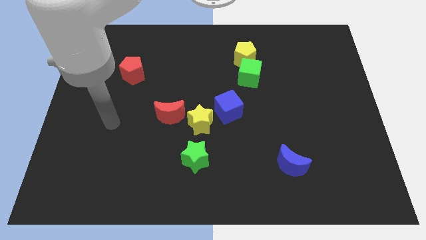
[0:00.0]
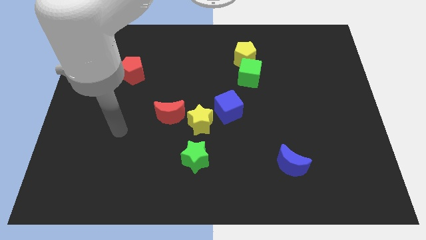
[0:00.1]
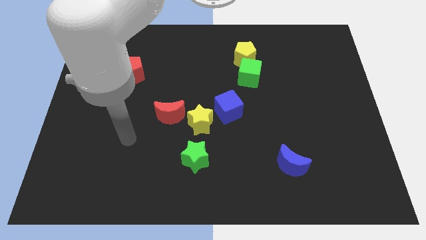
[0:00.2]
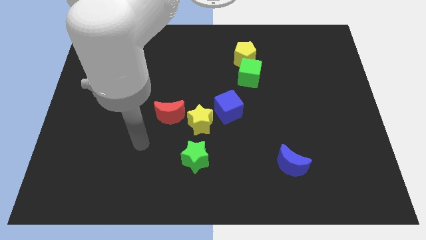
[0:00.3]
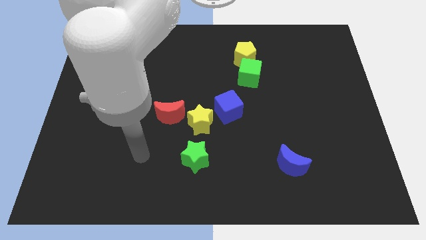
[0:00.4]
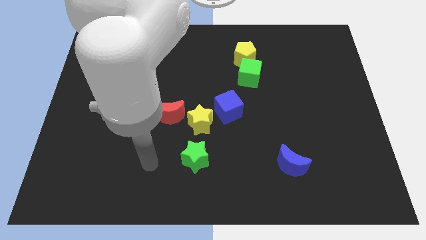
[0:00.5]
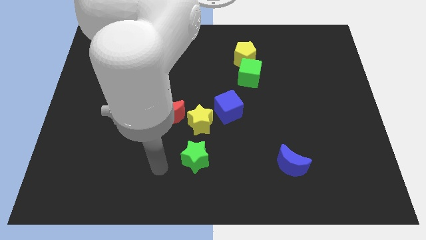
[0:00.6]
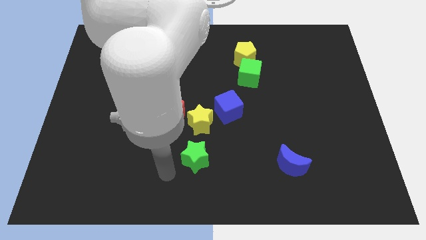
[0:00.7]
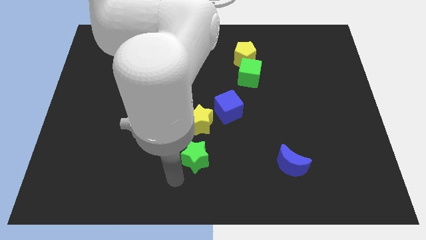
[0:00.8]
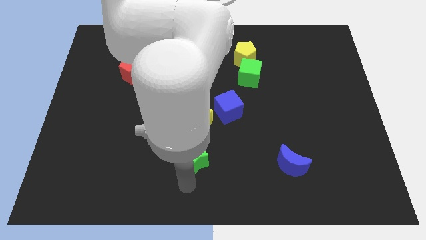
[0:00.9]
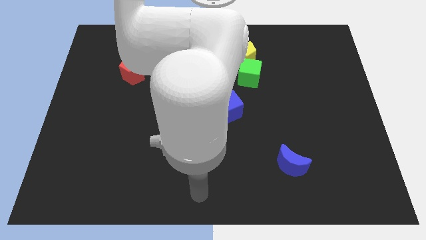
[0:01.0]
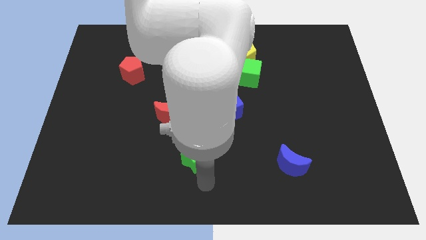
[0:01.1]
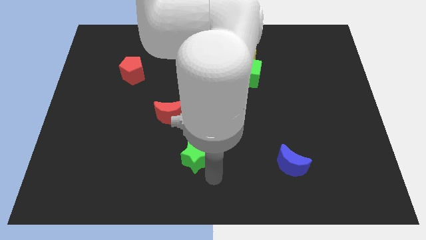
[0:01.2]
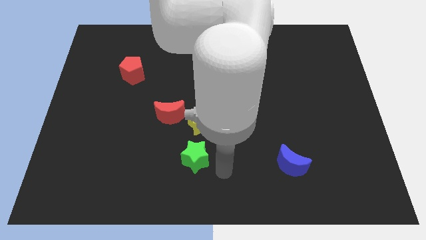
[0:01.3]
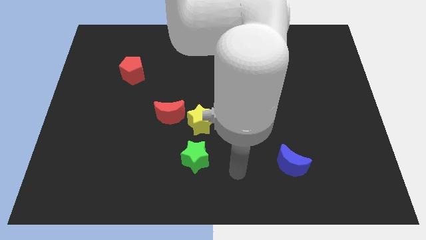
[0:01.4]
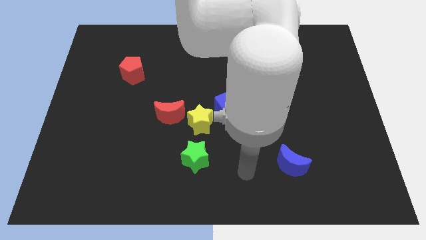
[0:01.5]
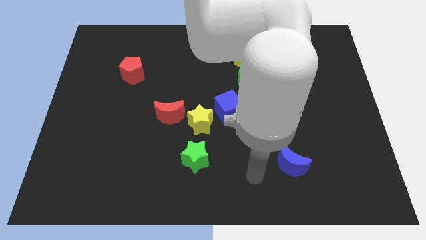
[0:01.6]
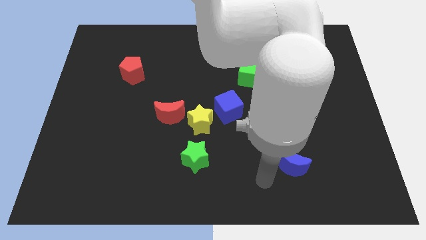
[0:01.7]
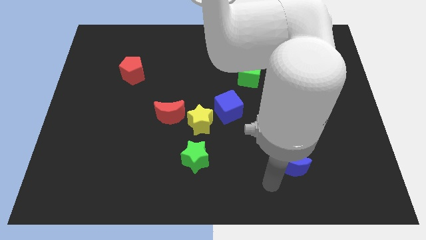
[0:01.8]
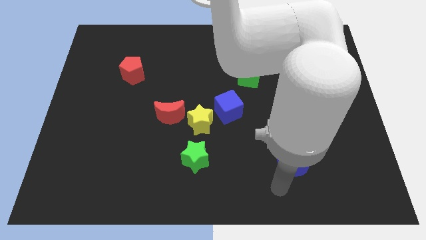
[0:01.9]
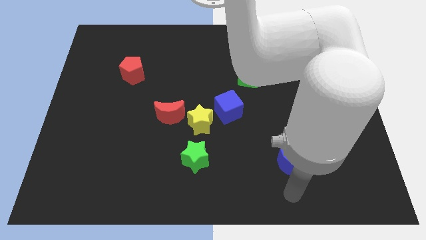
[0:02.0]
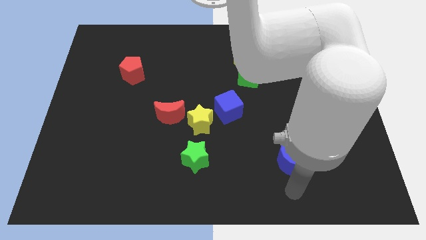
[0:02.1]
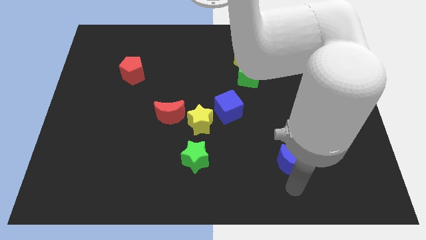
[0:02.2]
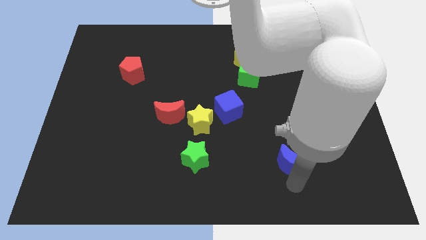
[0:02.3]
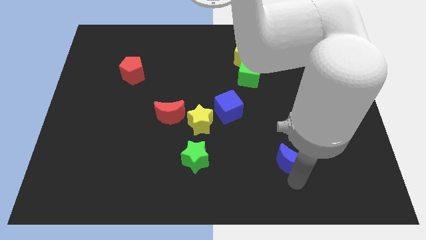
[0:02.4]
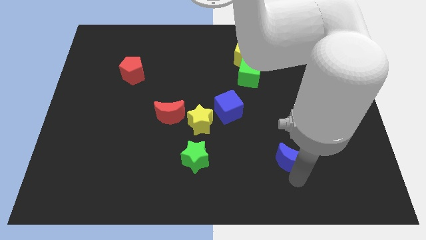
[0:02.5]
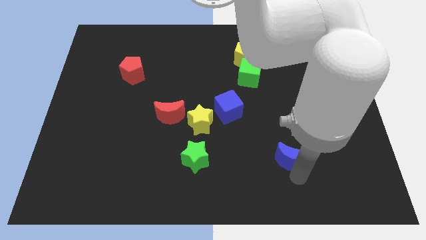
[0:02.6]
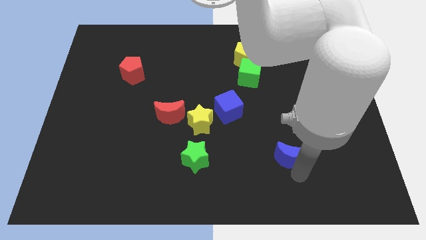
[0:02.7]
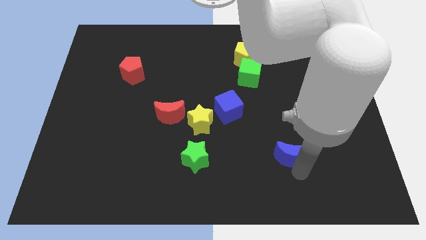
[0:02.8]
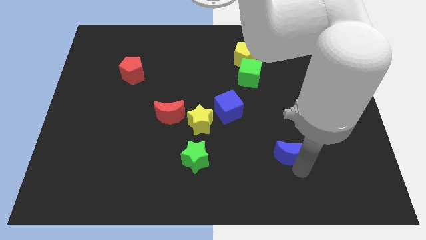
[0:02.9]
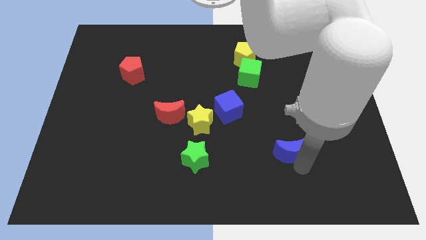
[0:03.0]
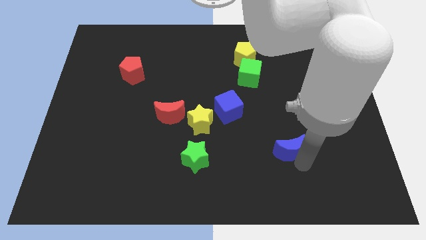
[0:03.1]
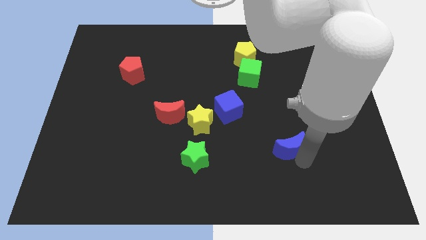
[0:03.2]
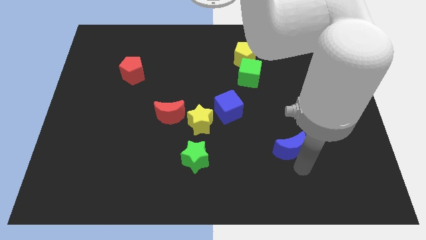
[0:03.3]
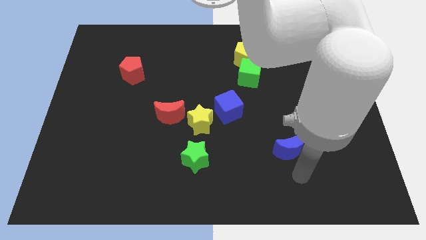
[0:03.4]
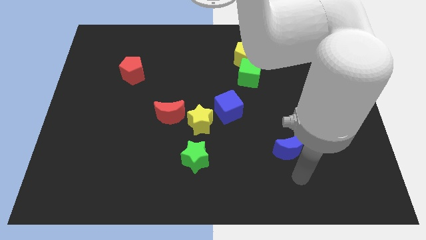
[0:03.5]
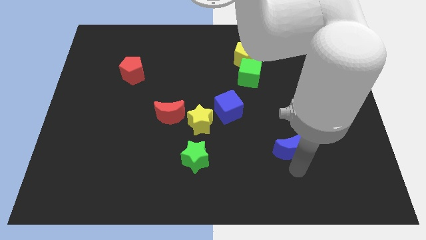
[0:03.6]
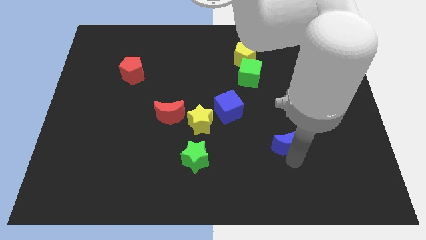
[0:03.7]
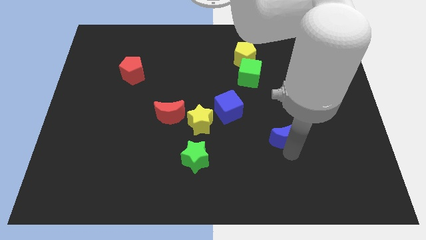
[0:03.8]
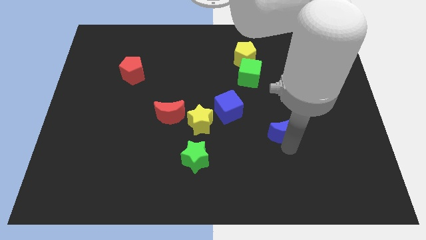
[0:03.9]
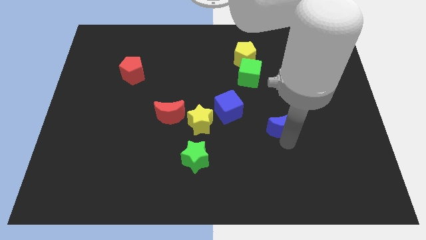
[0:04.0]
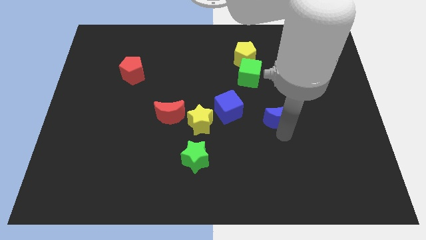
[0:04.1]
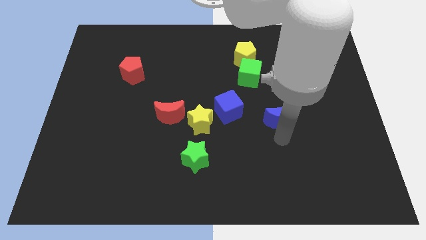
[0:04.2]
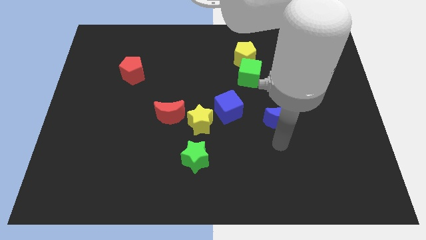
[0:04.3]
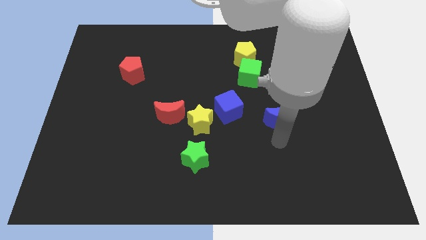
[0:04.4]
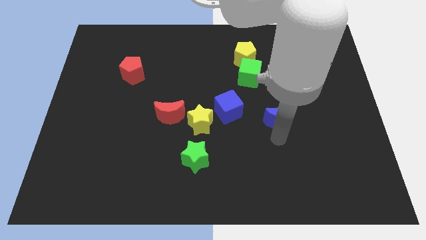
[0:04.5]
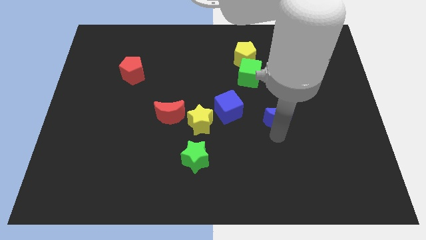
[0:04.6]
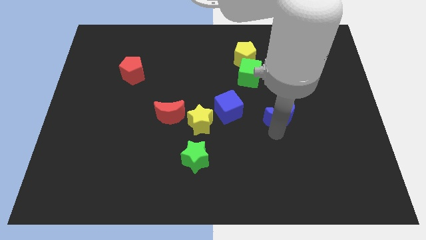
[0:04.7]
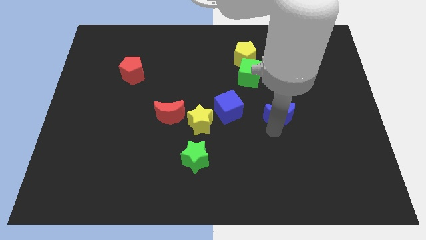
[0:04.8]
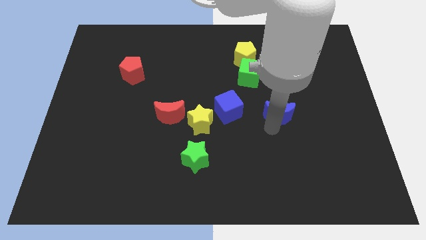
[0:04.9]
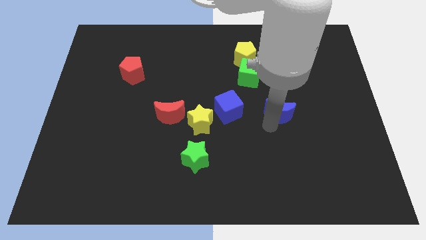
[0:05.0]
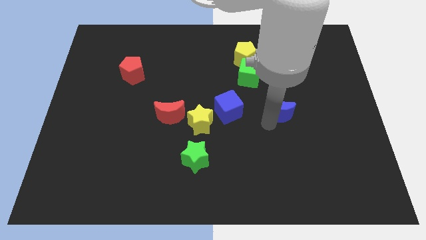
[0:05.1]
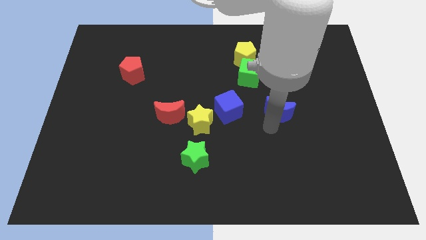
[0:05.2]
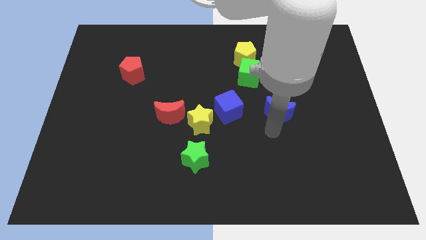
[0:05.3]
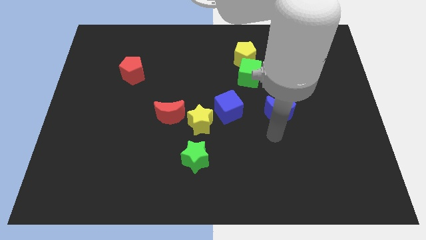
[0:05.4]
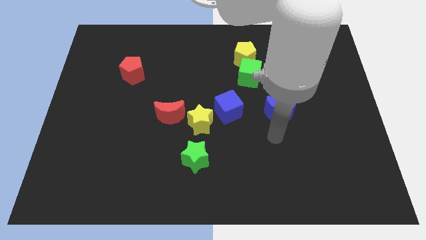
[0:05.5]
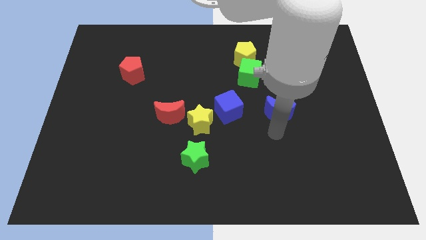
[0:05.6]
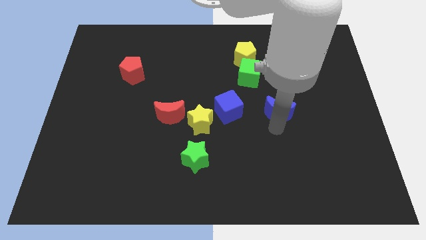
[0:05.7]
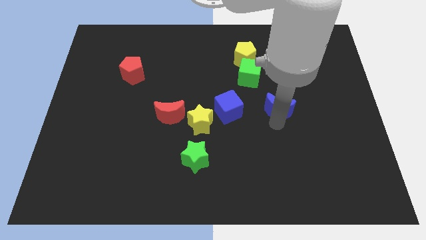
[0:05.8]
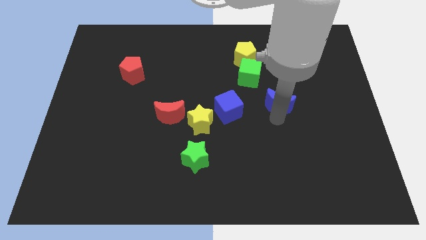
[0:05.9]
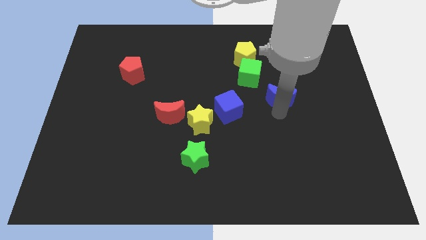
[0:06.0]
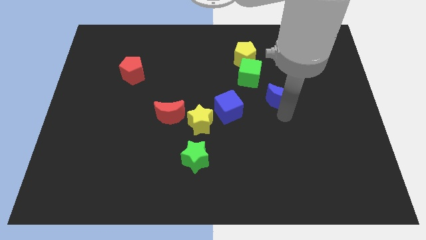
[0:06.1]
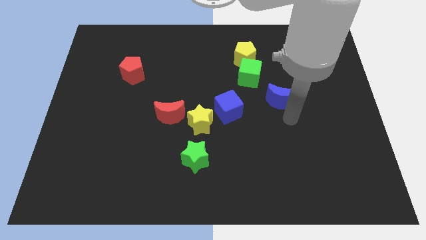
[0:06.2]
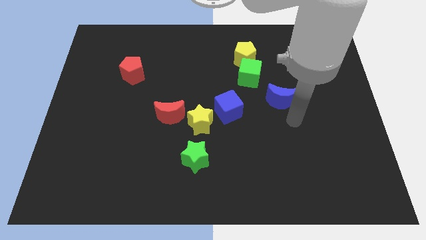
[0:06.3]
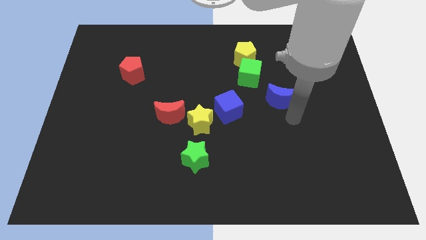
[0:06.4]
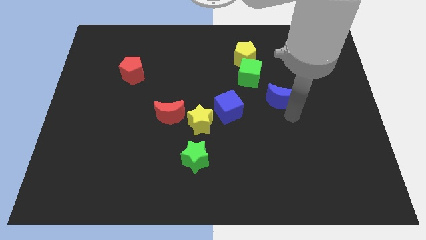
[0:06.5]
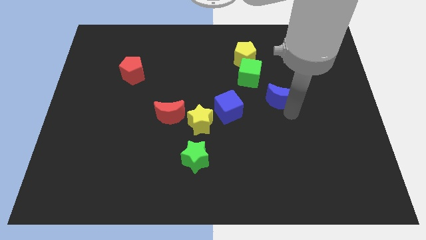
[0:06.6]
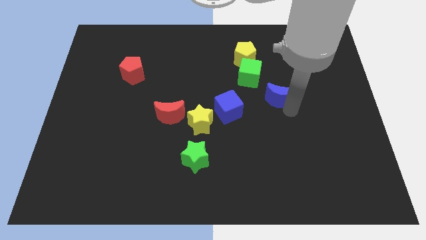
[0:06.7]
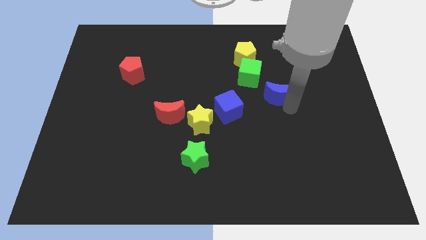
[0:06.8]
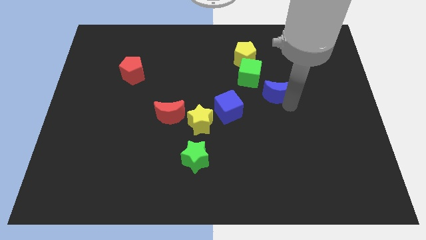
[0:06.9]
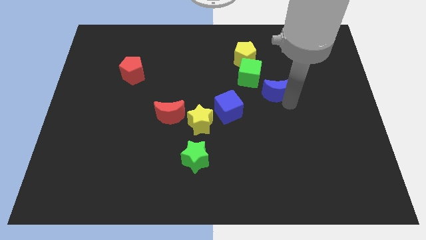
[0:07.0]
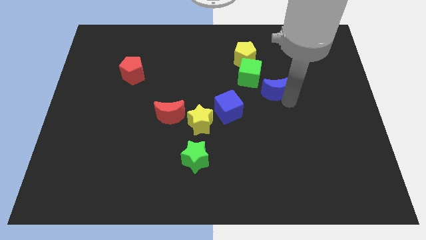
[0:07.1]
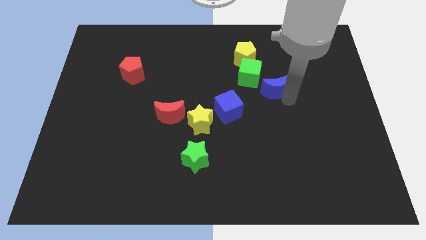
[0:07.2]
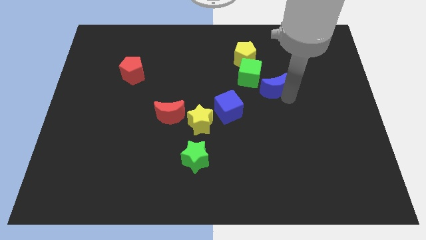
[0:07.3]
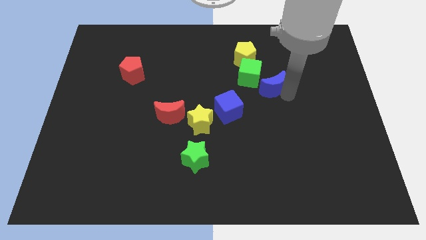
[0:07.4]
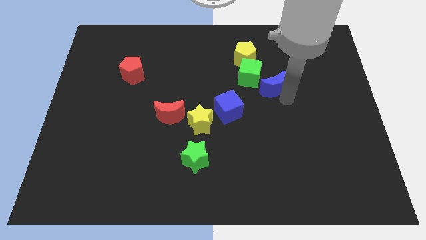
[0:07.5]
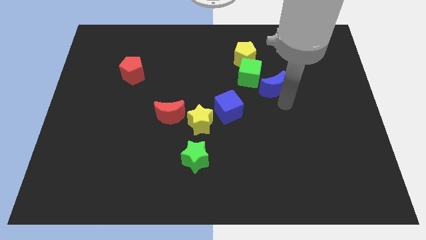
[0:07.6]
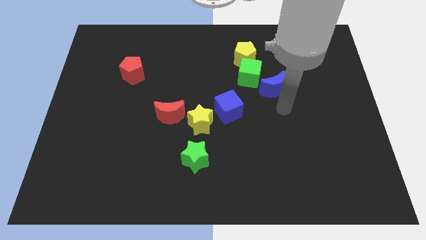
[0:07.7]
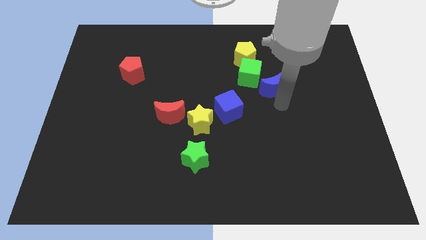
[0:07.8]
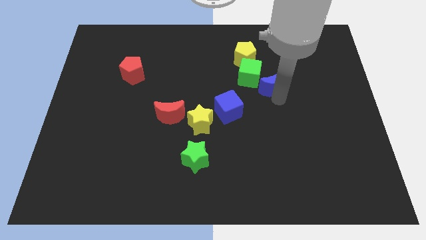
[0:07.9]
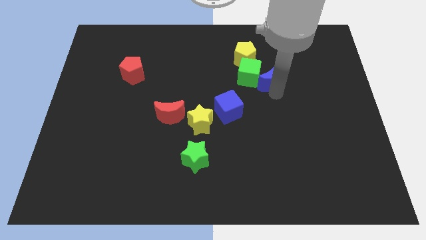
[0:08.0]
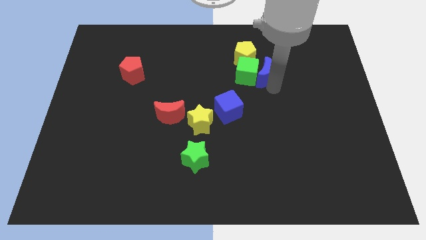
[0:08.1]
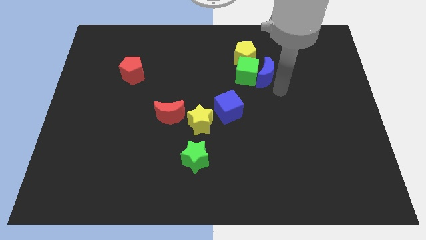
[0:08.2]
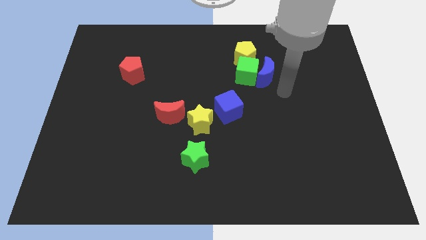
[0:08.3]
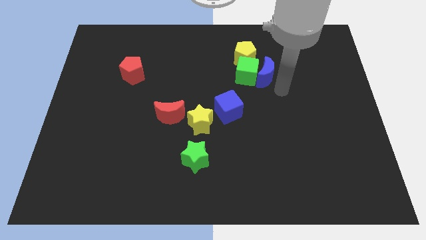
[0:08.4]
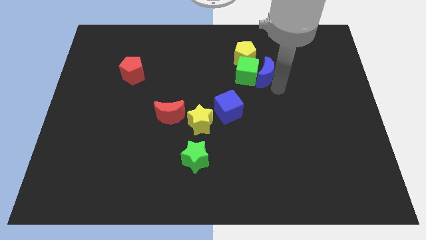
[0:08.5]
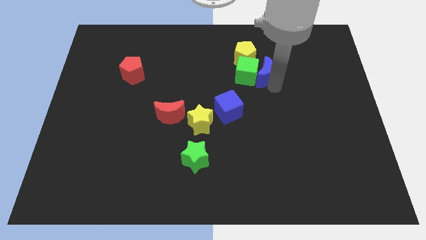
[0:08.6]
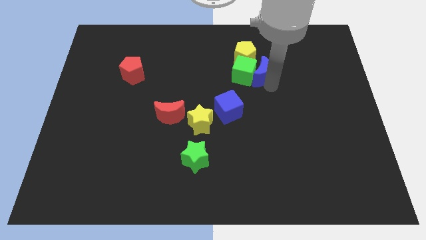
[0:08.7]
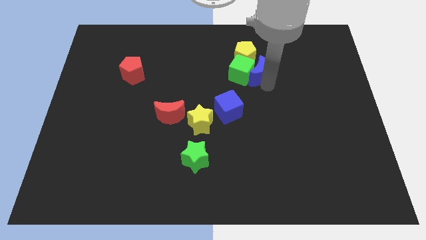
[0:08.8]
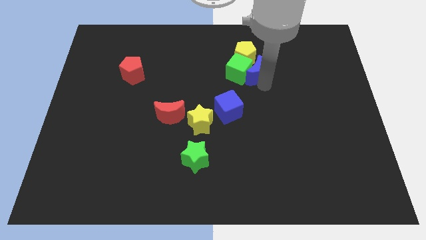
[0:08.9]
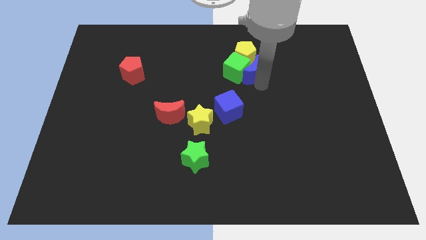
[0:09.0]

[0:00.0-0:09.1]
slide the blue moon next to the yellow pentagon
